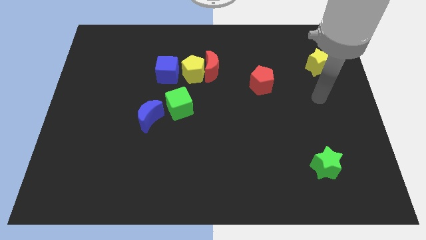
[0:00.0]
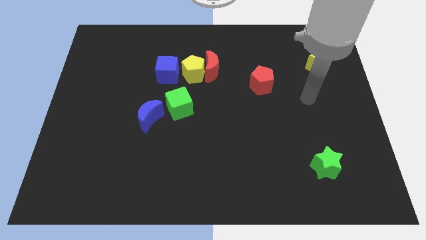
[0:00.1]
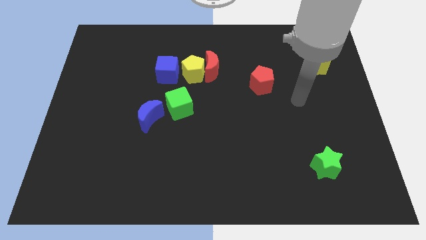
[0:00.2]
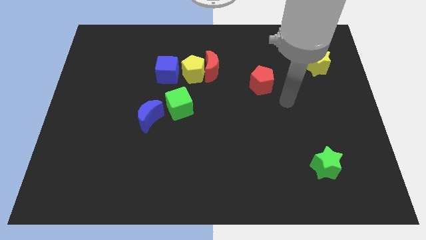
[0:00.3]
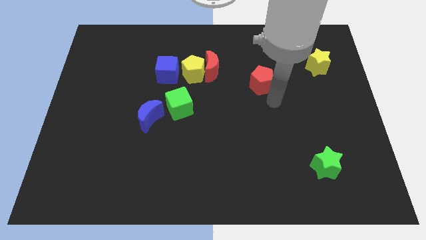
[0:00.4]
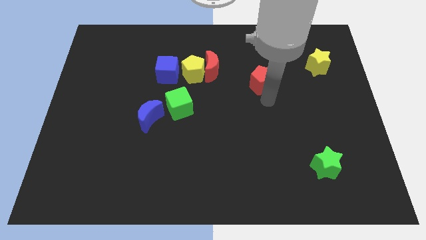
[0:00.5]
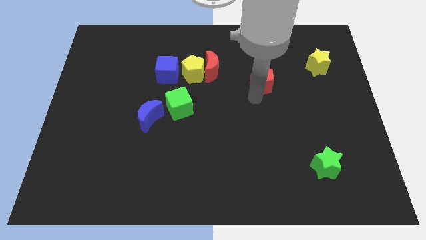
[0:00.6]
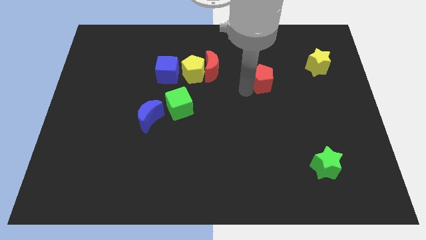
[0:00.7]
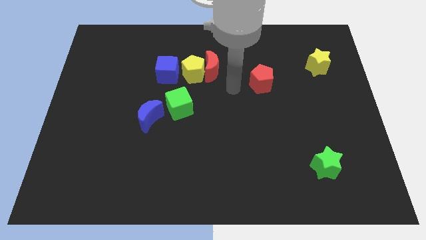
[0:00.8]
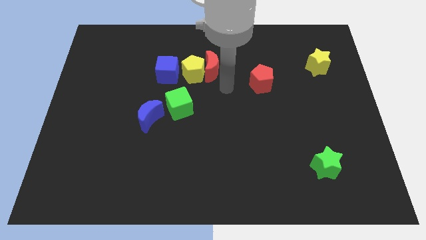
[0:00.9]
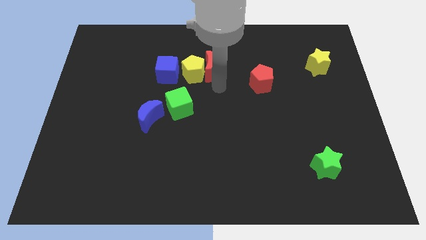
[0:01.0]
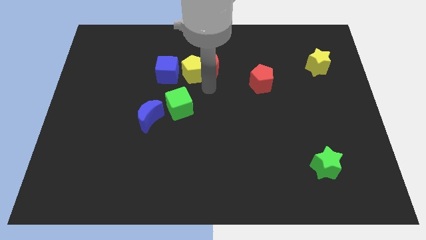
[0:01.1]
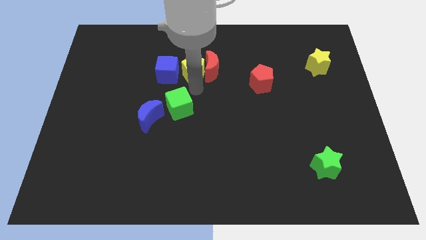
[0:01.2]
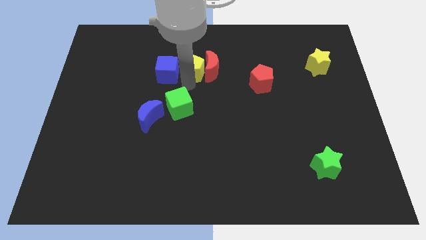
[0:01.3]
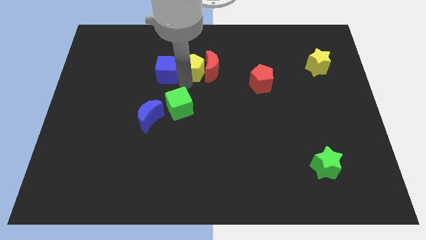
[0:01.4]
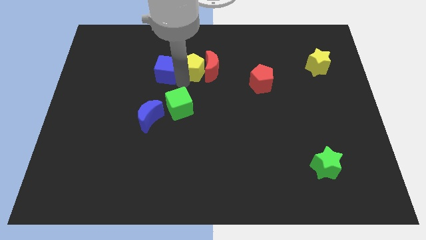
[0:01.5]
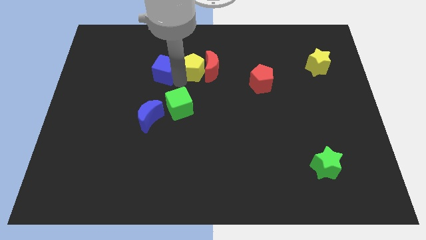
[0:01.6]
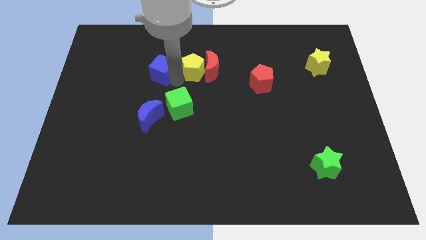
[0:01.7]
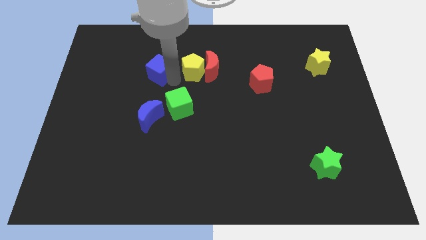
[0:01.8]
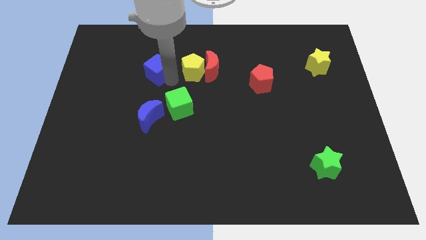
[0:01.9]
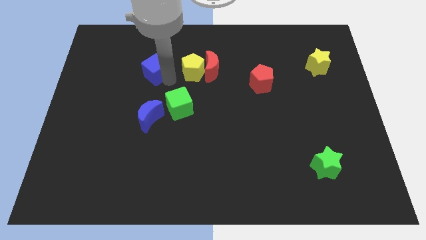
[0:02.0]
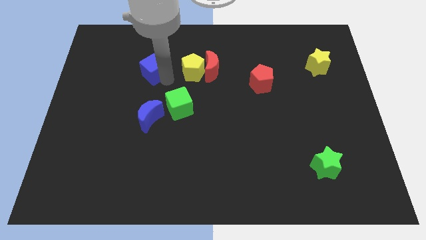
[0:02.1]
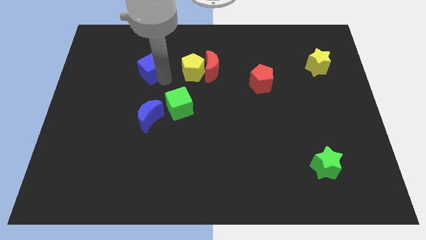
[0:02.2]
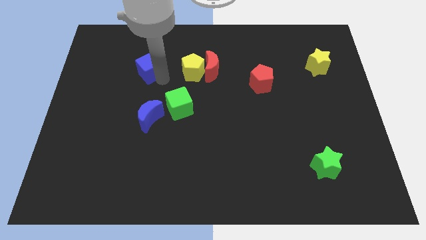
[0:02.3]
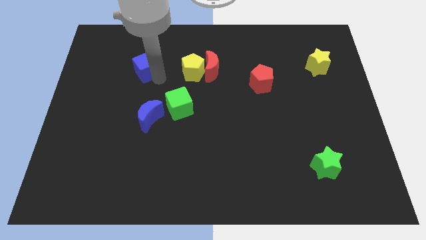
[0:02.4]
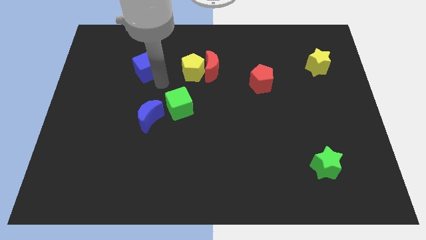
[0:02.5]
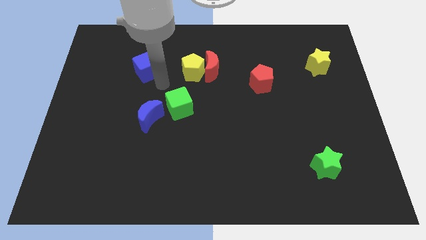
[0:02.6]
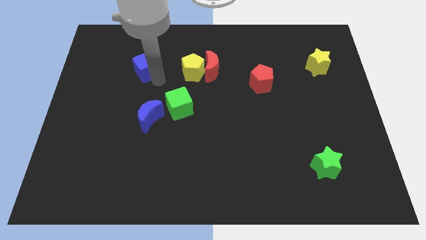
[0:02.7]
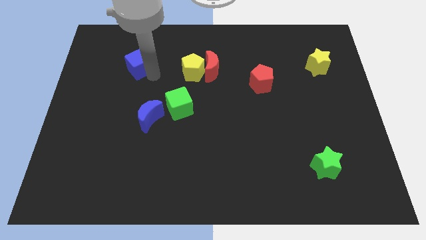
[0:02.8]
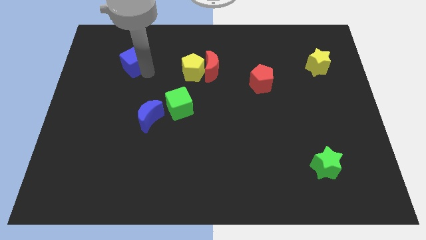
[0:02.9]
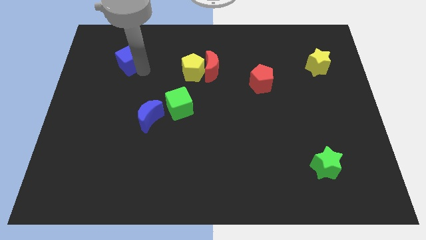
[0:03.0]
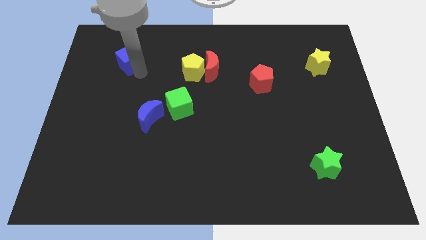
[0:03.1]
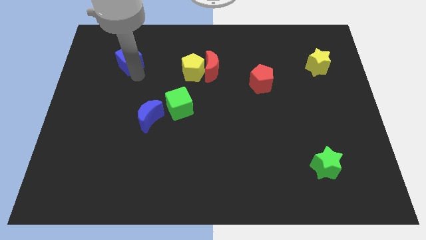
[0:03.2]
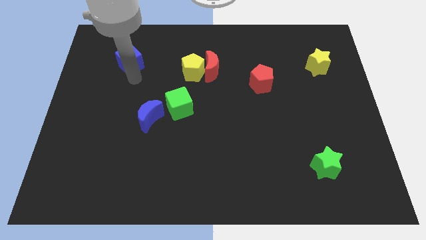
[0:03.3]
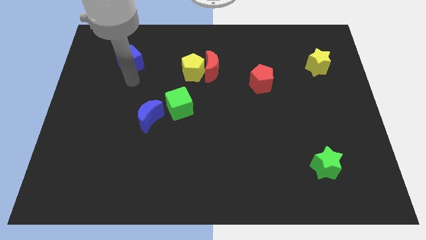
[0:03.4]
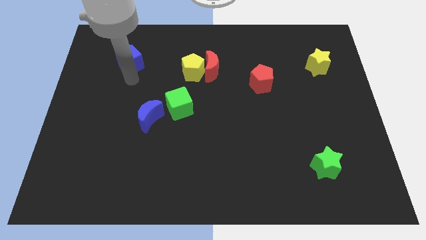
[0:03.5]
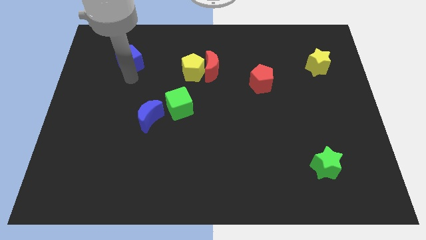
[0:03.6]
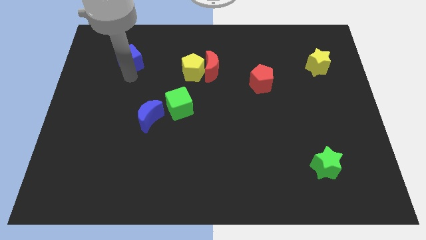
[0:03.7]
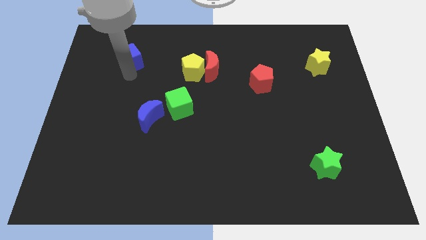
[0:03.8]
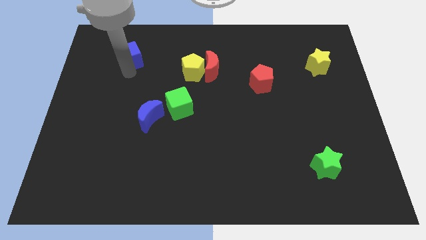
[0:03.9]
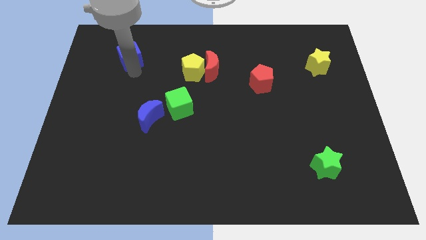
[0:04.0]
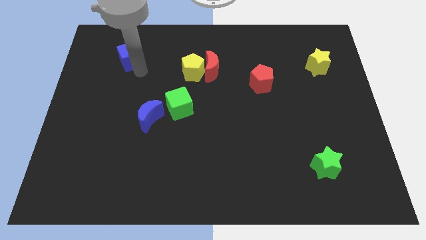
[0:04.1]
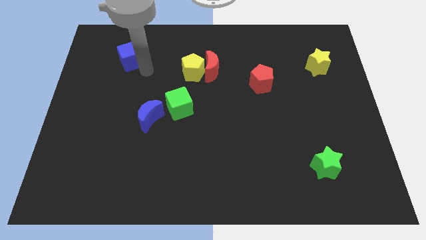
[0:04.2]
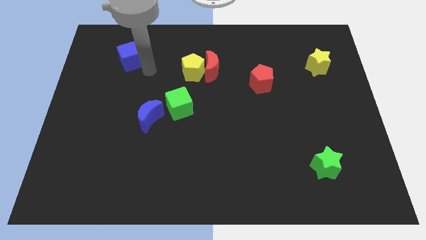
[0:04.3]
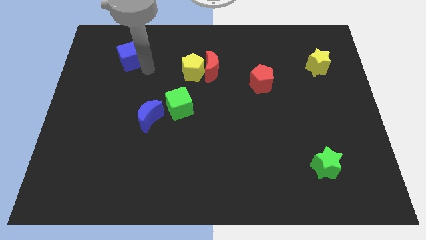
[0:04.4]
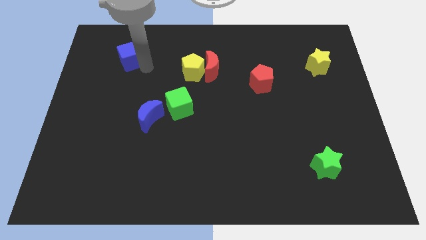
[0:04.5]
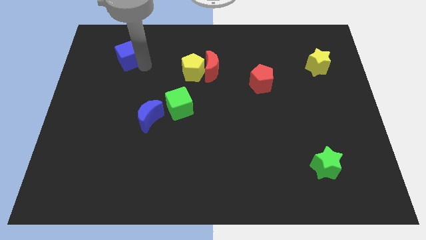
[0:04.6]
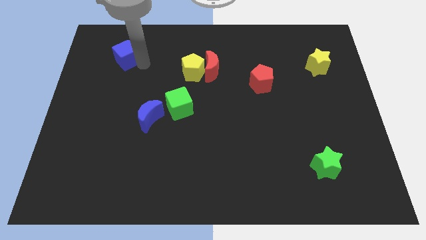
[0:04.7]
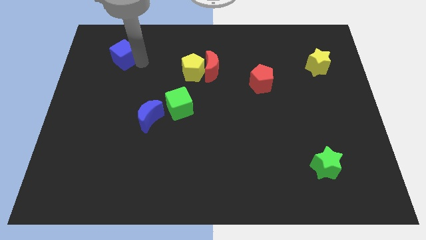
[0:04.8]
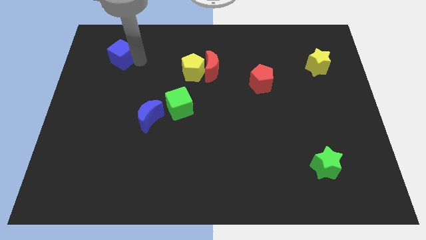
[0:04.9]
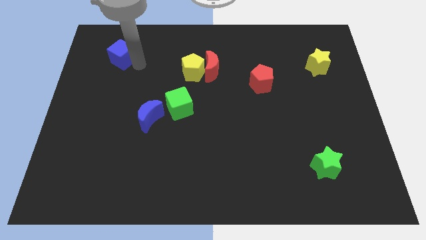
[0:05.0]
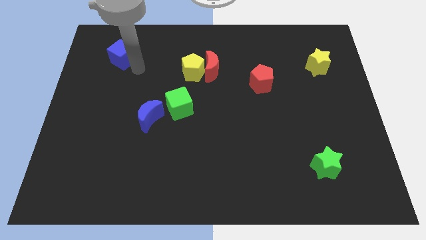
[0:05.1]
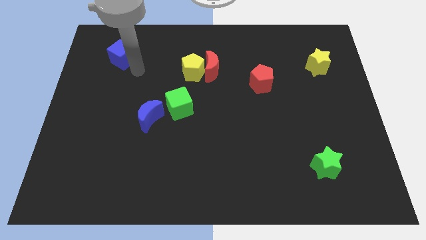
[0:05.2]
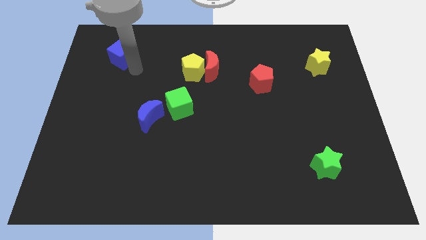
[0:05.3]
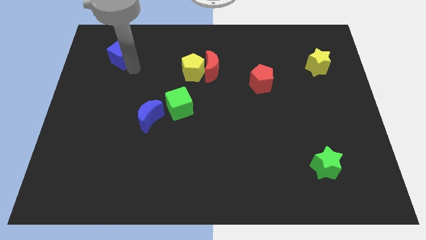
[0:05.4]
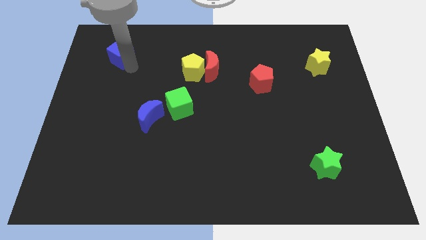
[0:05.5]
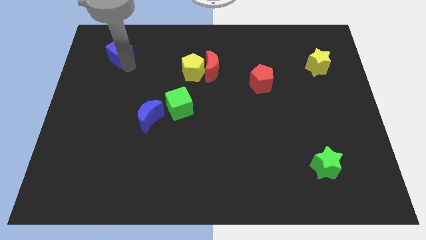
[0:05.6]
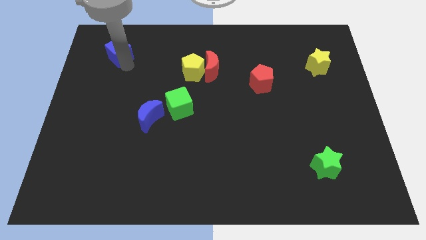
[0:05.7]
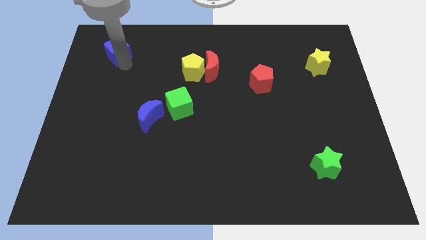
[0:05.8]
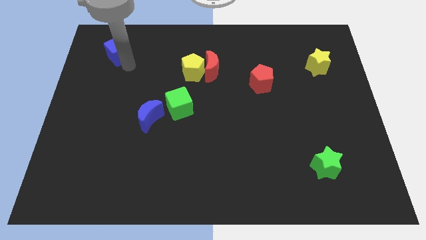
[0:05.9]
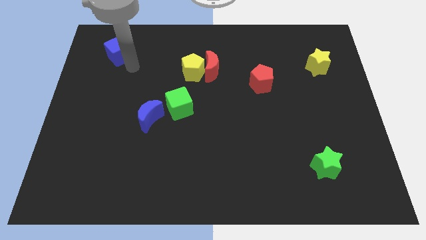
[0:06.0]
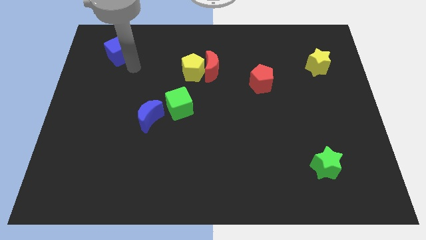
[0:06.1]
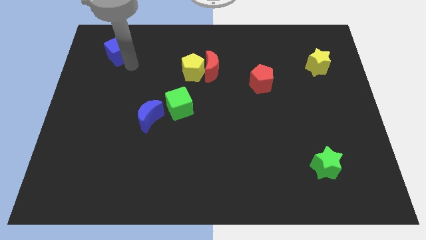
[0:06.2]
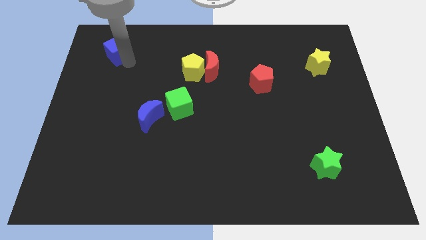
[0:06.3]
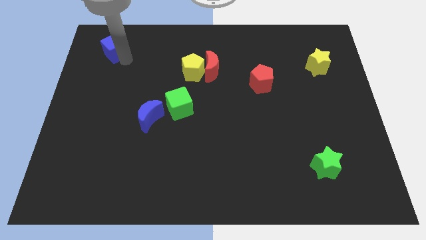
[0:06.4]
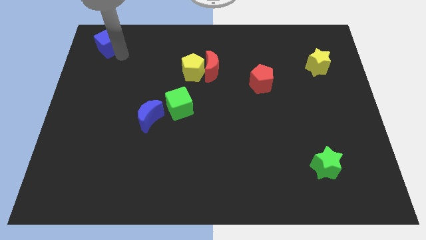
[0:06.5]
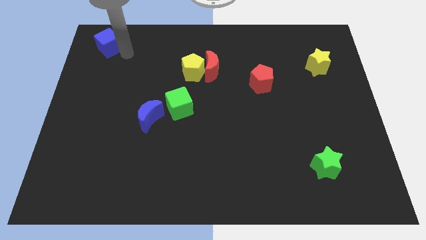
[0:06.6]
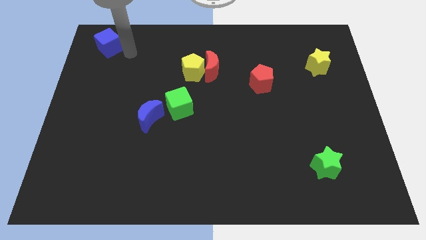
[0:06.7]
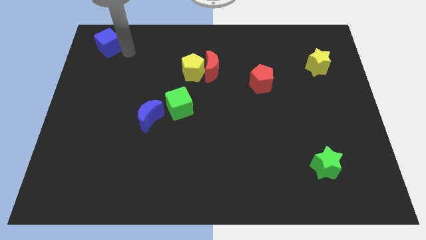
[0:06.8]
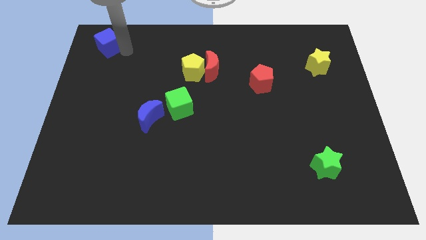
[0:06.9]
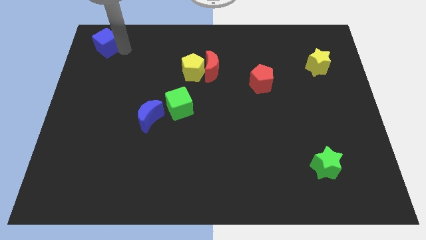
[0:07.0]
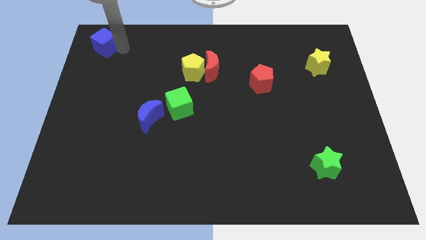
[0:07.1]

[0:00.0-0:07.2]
put the blue cube to the top left corner
